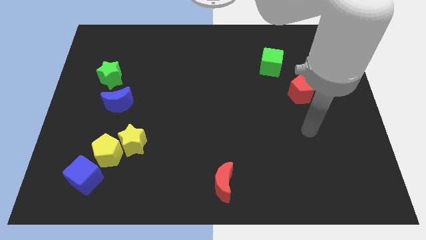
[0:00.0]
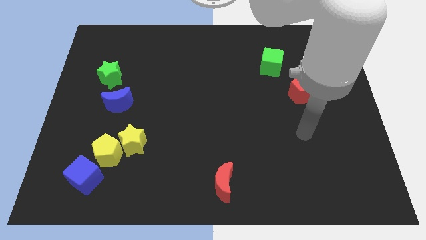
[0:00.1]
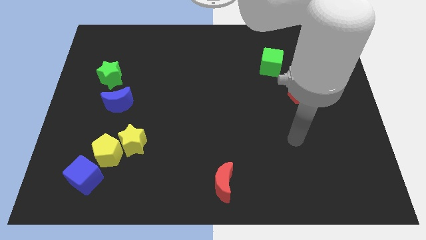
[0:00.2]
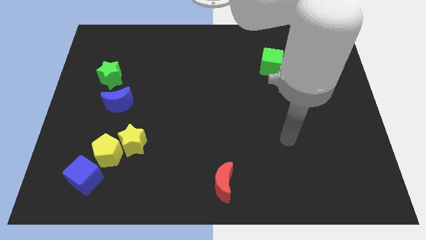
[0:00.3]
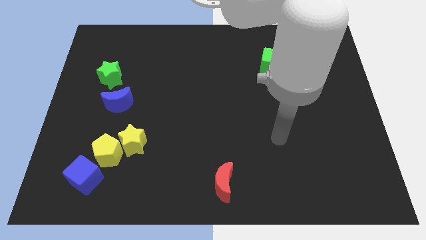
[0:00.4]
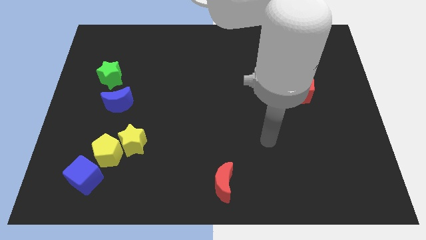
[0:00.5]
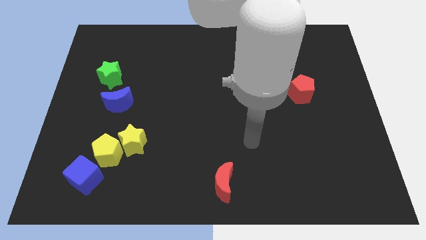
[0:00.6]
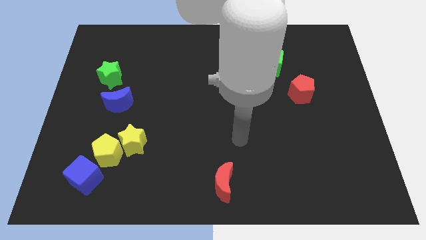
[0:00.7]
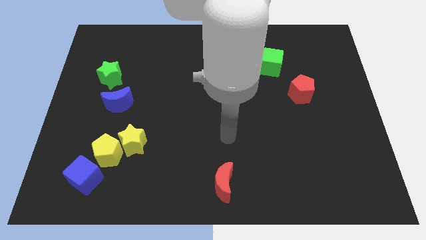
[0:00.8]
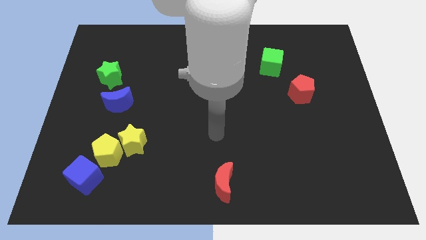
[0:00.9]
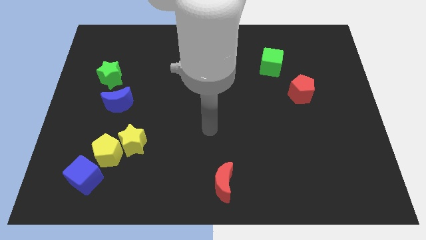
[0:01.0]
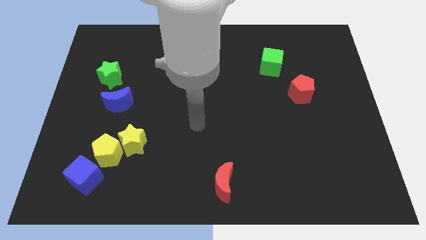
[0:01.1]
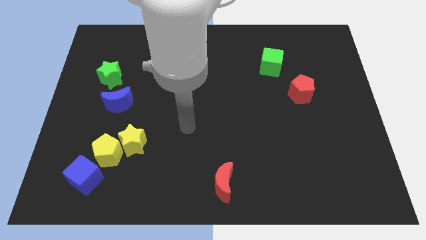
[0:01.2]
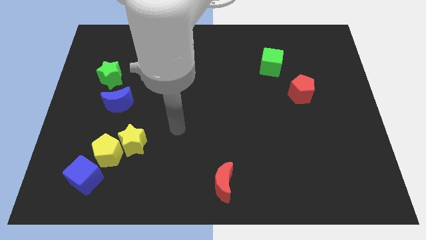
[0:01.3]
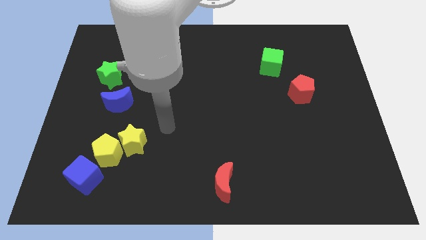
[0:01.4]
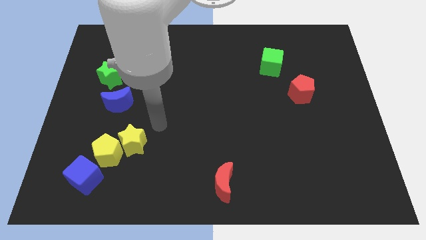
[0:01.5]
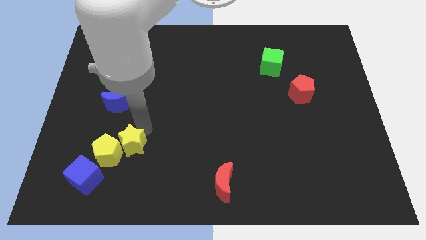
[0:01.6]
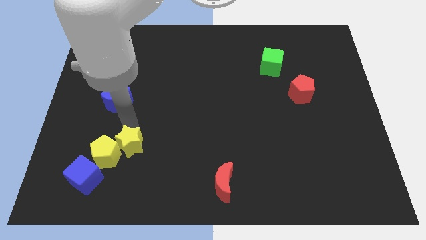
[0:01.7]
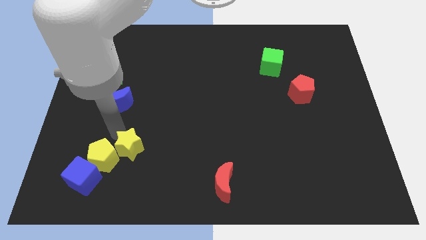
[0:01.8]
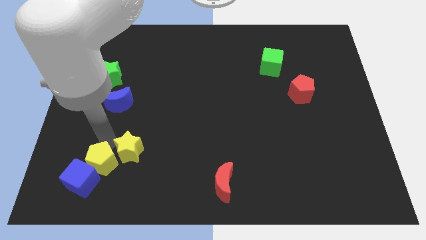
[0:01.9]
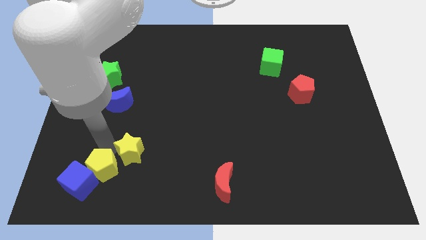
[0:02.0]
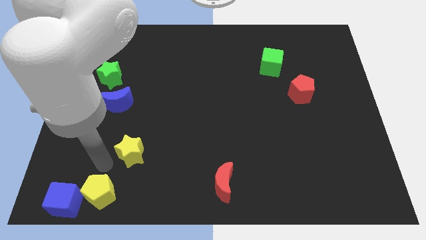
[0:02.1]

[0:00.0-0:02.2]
pull the yellow star apart from the yellow pentagon

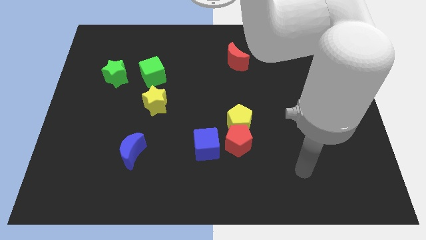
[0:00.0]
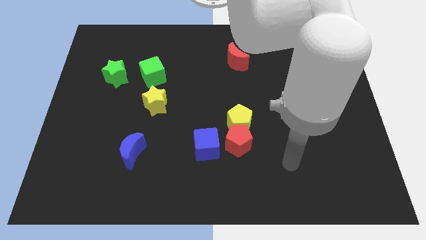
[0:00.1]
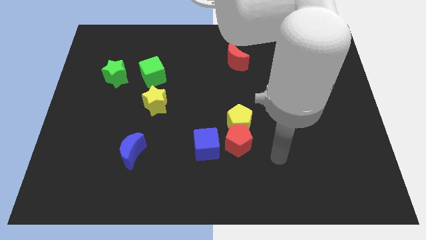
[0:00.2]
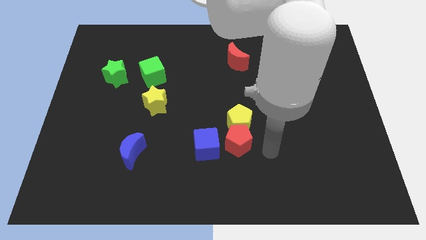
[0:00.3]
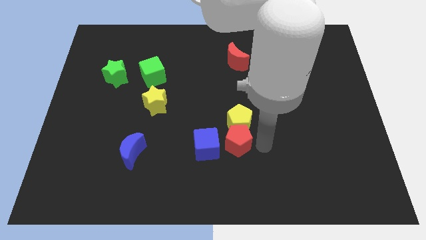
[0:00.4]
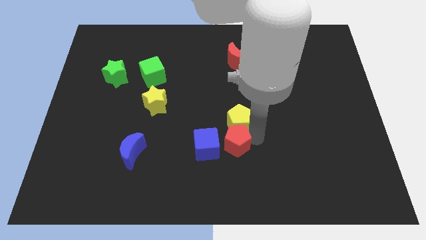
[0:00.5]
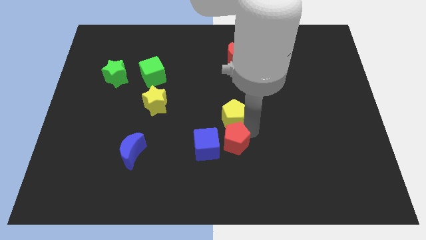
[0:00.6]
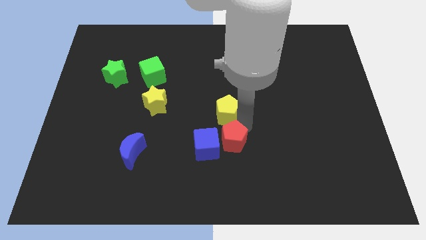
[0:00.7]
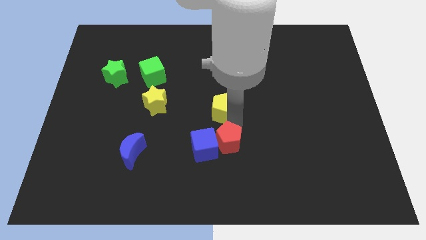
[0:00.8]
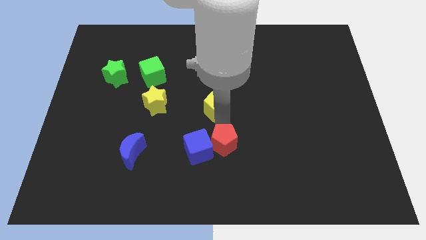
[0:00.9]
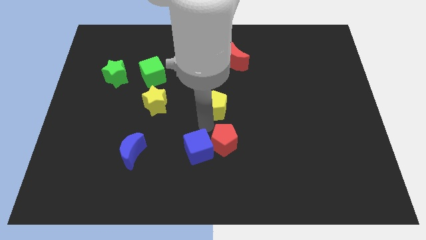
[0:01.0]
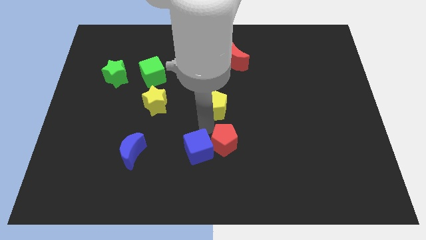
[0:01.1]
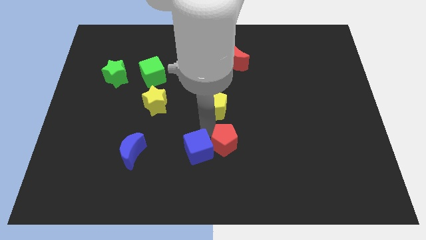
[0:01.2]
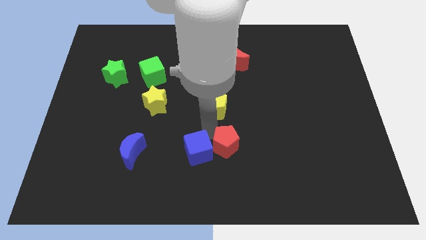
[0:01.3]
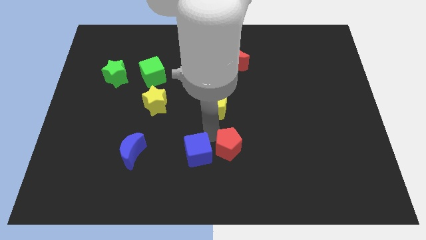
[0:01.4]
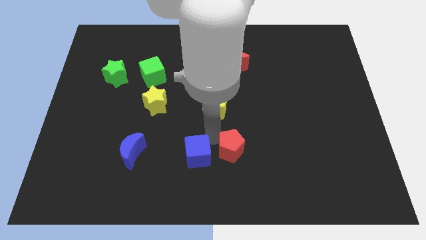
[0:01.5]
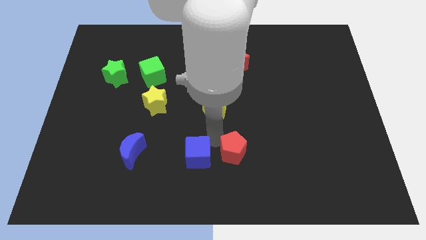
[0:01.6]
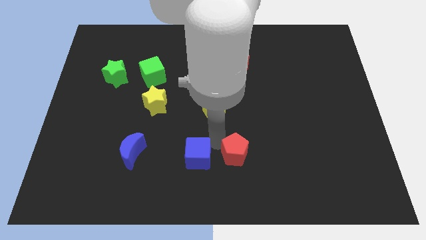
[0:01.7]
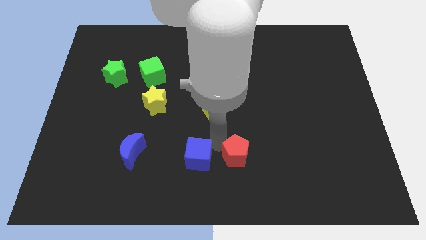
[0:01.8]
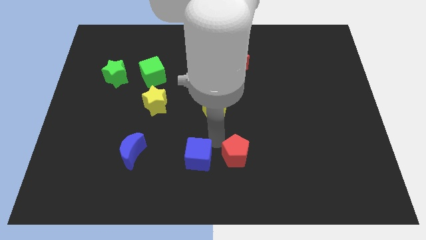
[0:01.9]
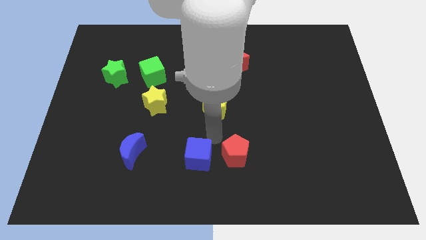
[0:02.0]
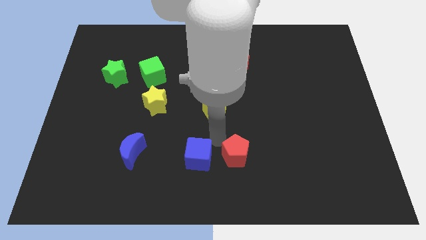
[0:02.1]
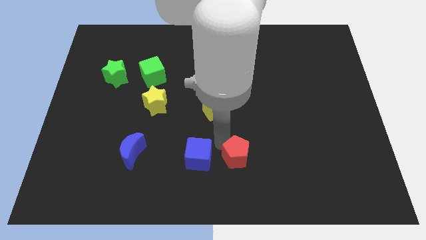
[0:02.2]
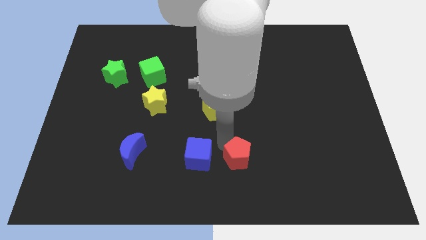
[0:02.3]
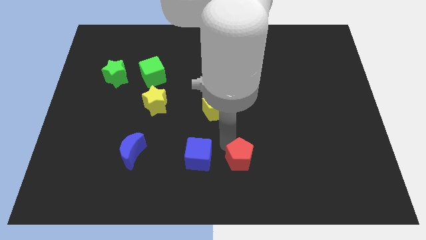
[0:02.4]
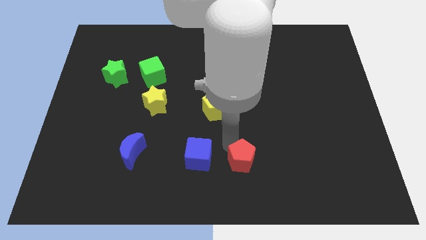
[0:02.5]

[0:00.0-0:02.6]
separate the red pentagon from the yellow pentagon and blue cube

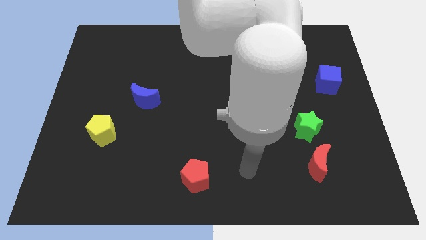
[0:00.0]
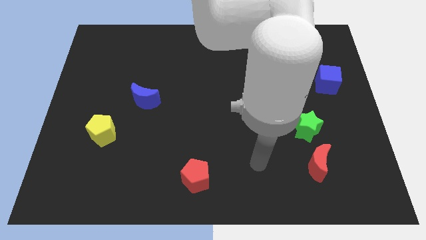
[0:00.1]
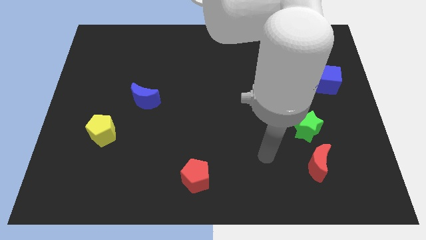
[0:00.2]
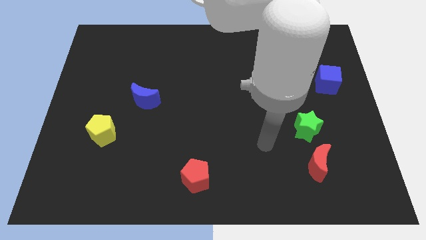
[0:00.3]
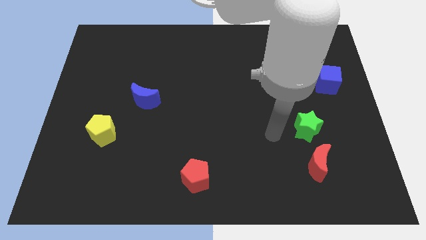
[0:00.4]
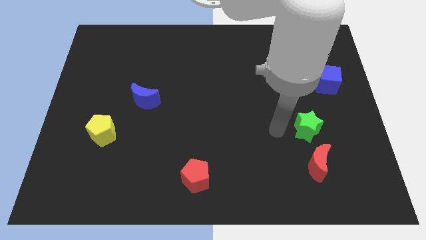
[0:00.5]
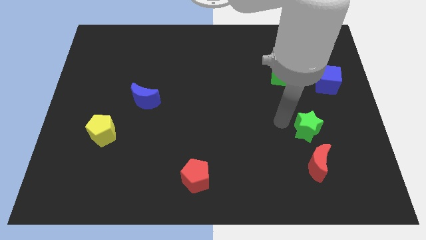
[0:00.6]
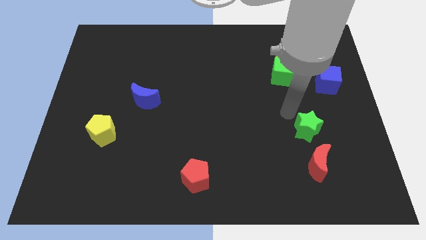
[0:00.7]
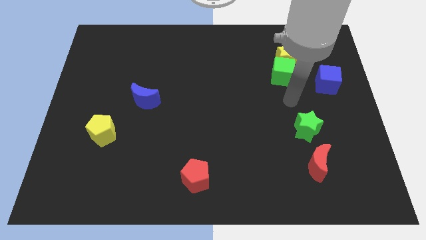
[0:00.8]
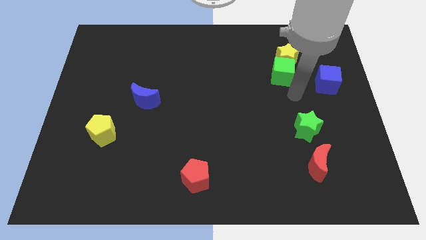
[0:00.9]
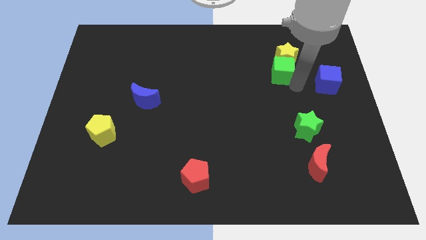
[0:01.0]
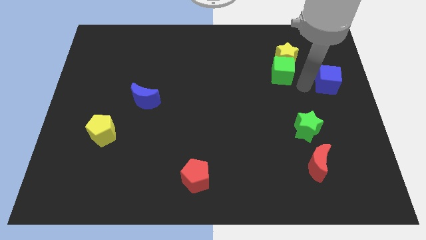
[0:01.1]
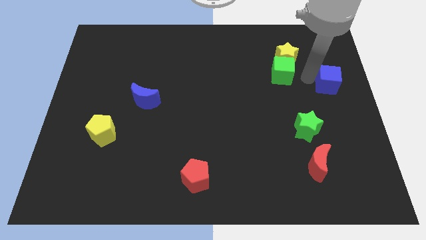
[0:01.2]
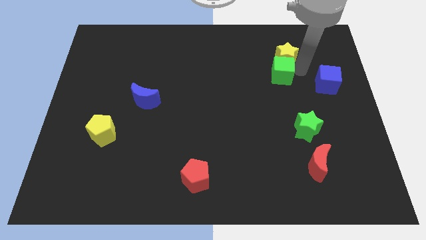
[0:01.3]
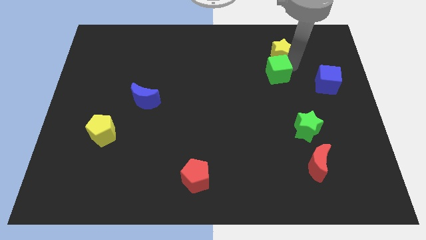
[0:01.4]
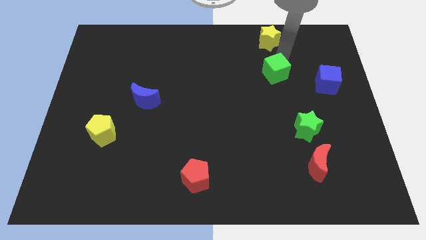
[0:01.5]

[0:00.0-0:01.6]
move the green cube away from the yellow star

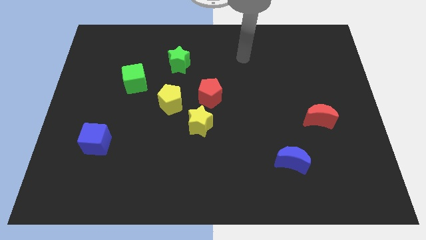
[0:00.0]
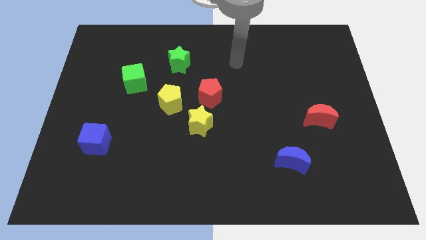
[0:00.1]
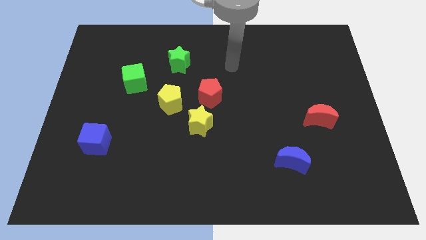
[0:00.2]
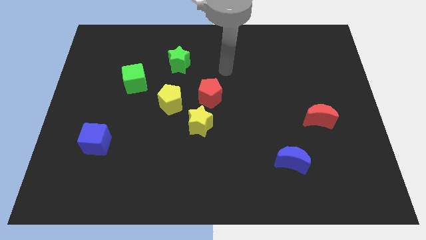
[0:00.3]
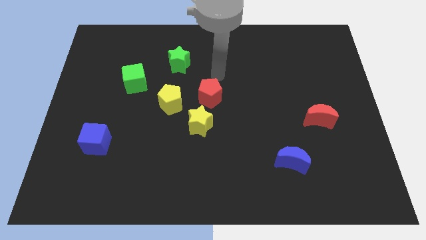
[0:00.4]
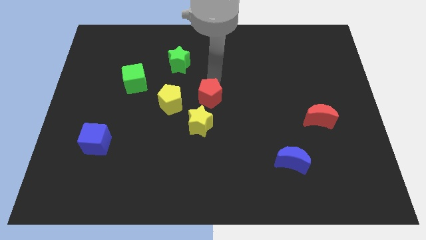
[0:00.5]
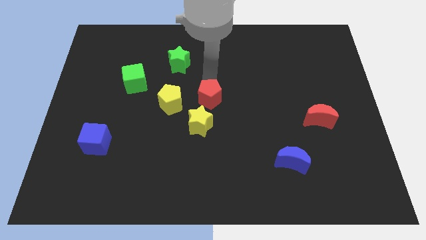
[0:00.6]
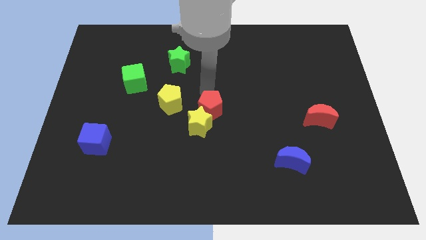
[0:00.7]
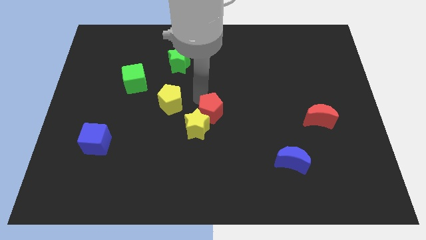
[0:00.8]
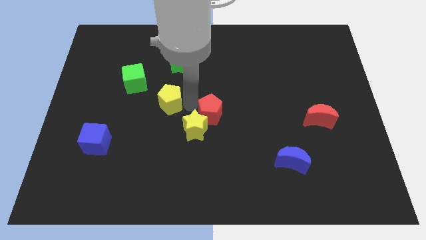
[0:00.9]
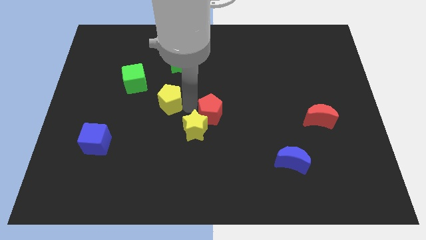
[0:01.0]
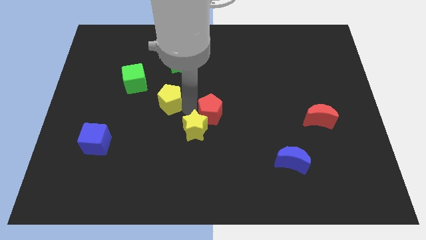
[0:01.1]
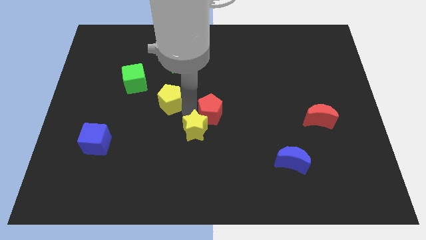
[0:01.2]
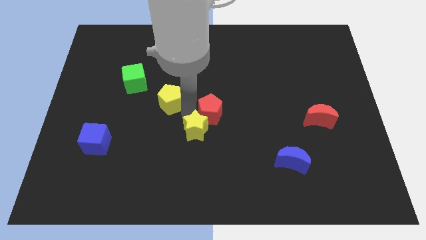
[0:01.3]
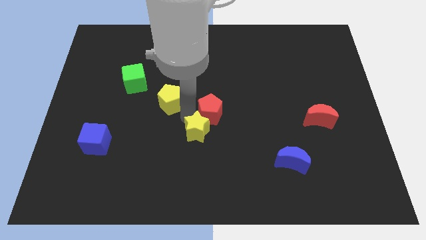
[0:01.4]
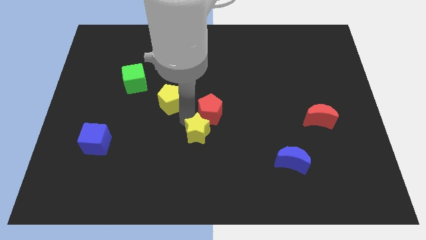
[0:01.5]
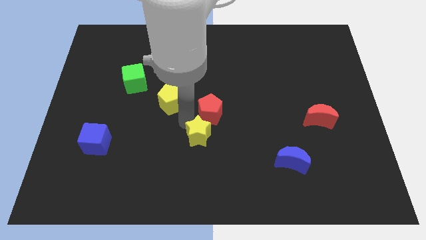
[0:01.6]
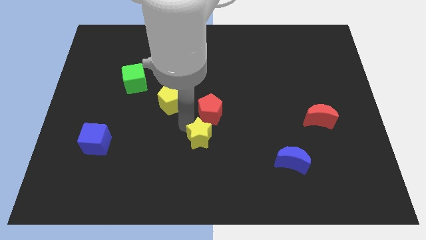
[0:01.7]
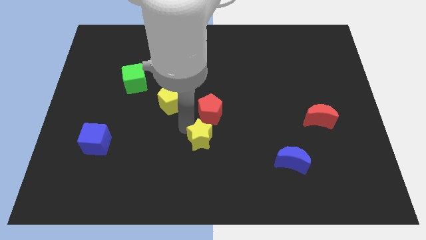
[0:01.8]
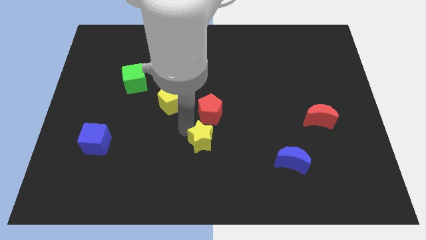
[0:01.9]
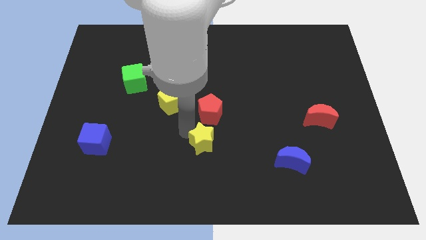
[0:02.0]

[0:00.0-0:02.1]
move the yellow star away from the red pentagon and yellow pentagon

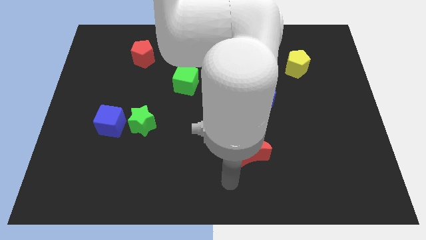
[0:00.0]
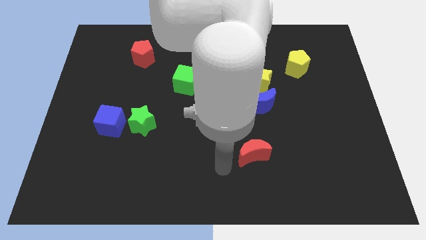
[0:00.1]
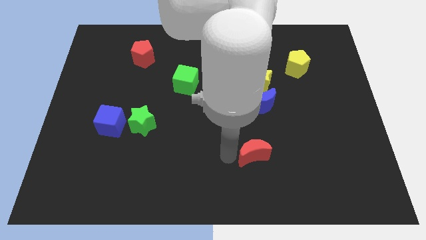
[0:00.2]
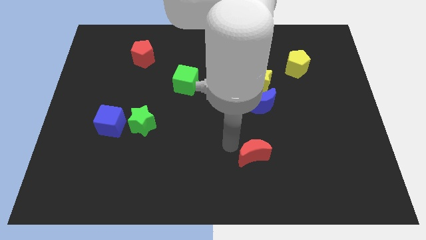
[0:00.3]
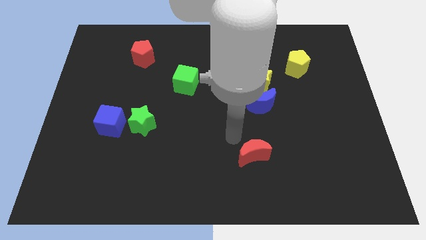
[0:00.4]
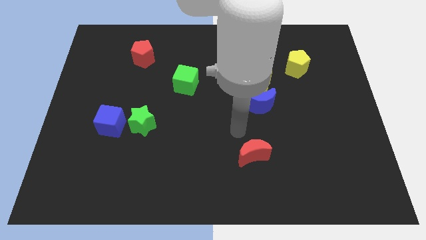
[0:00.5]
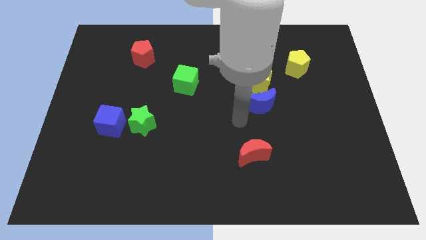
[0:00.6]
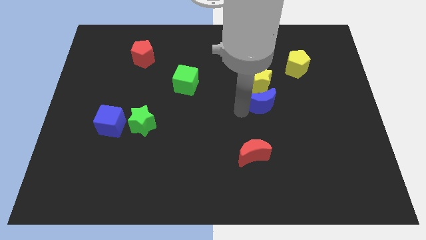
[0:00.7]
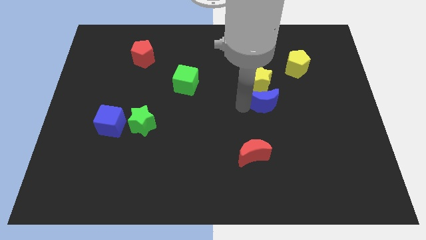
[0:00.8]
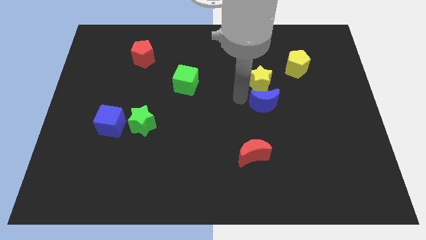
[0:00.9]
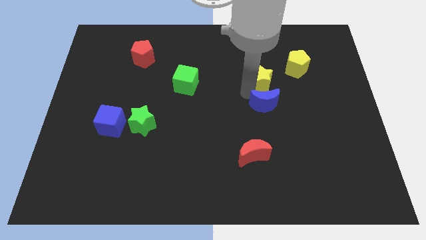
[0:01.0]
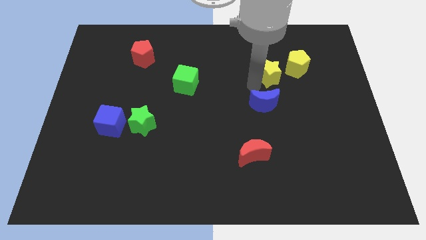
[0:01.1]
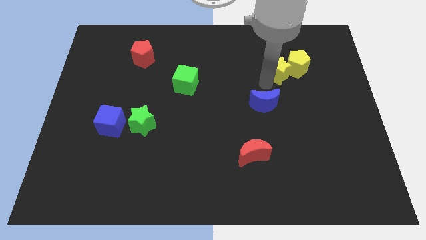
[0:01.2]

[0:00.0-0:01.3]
separate the blue moon from the yellow star
